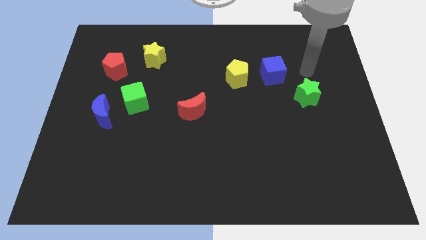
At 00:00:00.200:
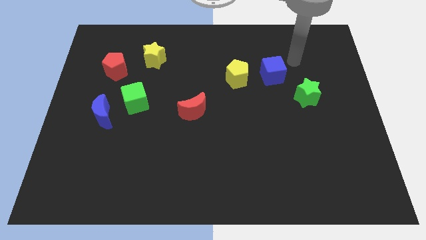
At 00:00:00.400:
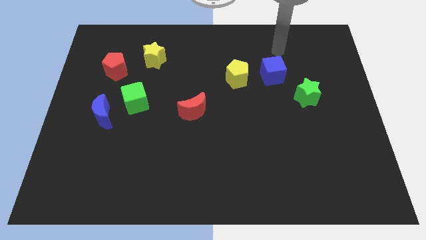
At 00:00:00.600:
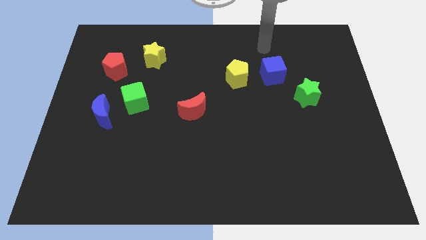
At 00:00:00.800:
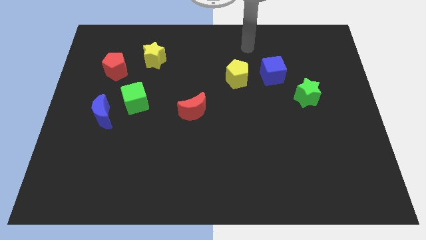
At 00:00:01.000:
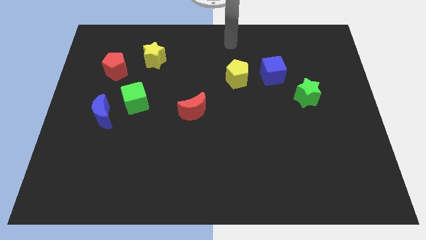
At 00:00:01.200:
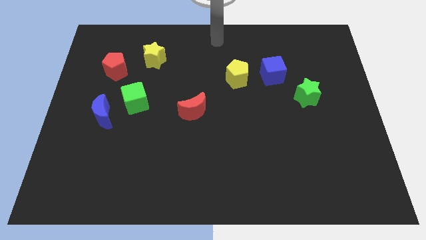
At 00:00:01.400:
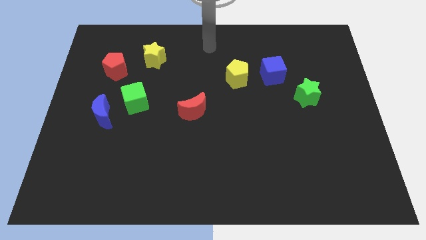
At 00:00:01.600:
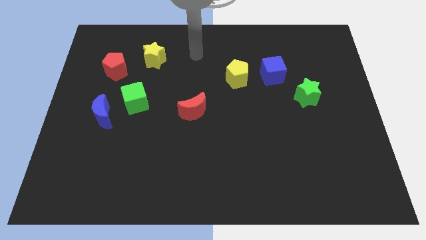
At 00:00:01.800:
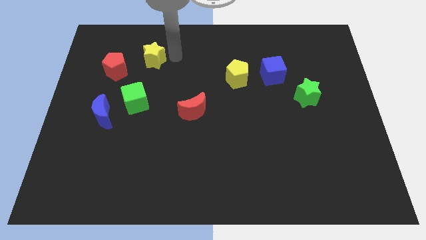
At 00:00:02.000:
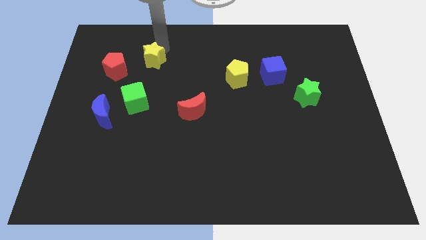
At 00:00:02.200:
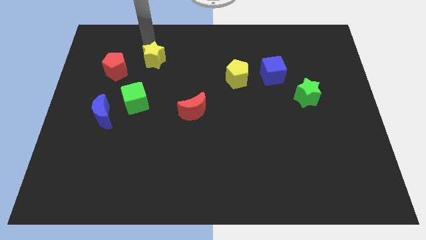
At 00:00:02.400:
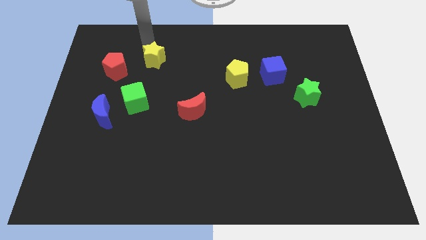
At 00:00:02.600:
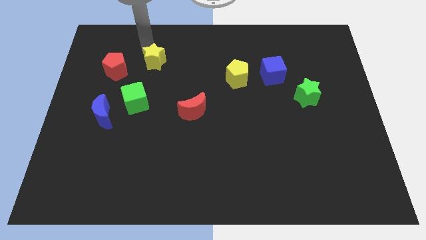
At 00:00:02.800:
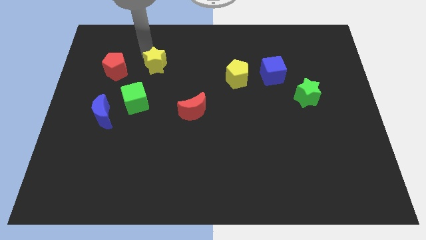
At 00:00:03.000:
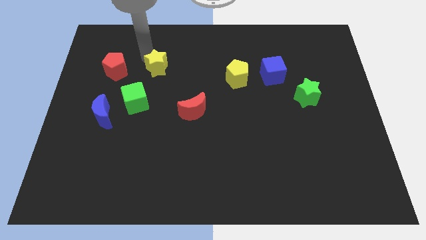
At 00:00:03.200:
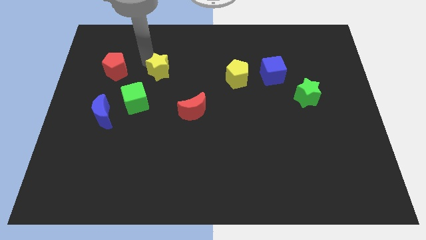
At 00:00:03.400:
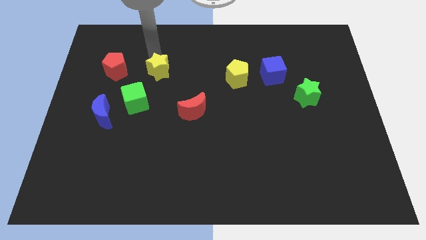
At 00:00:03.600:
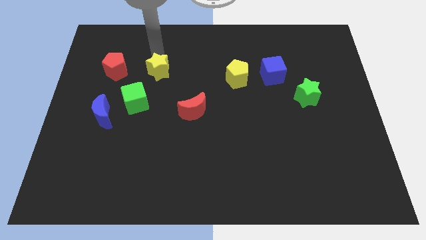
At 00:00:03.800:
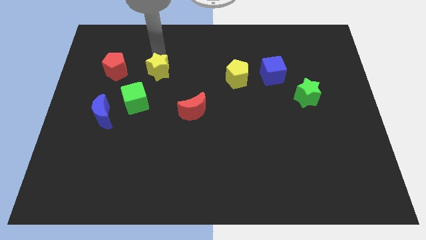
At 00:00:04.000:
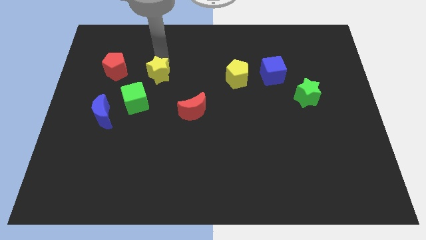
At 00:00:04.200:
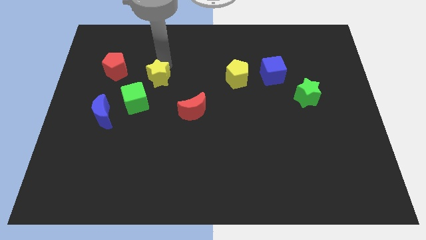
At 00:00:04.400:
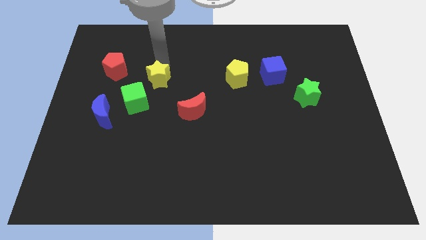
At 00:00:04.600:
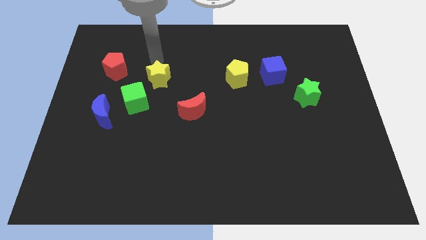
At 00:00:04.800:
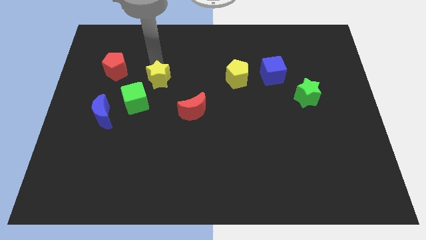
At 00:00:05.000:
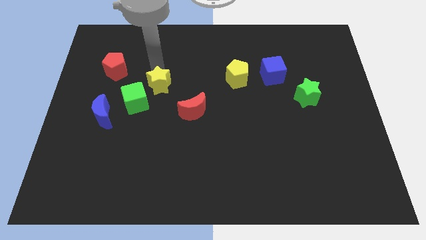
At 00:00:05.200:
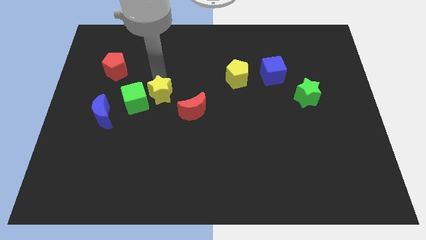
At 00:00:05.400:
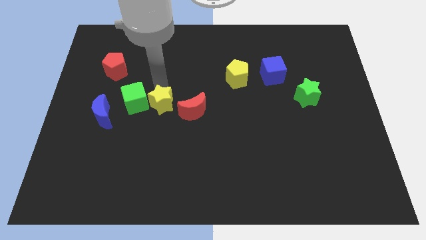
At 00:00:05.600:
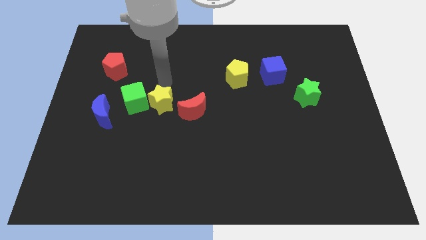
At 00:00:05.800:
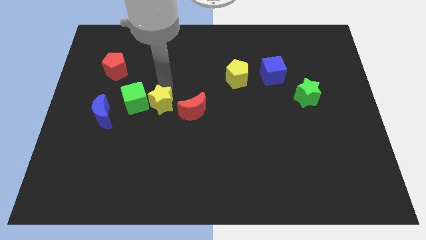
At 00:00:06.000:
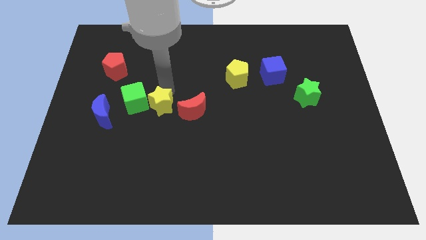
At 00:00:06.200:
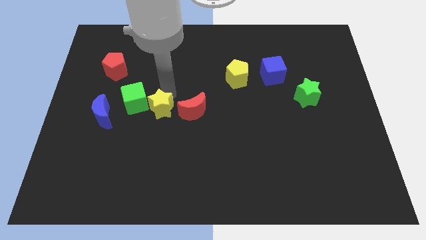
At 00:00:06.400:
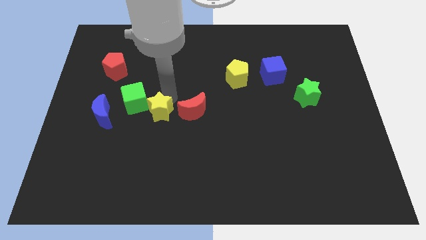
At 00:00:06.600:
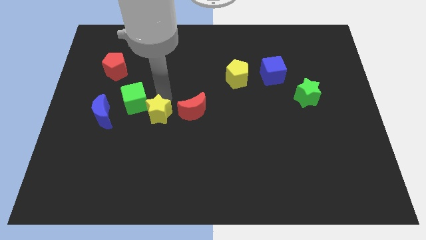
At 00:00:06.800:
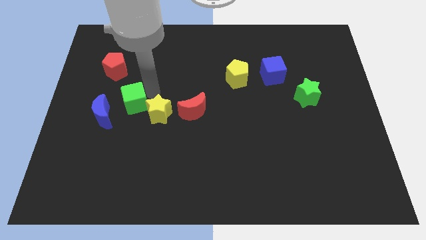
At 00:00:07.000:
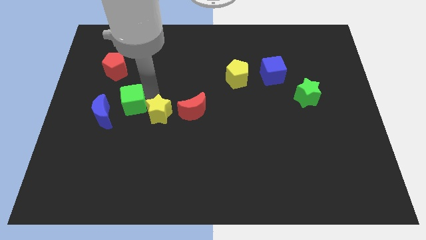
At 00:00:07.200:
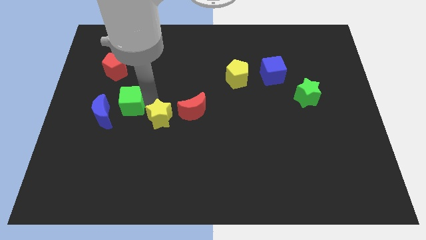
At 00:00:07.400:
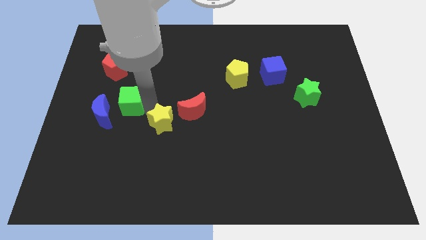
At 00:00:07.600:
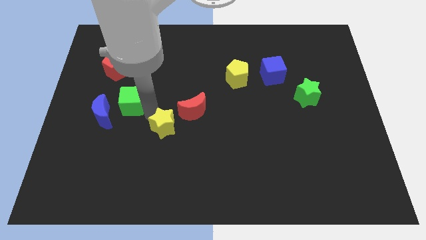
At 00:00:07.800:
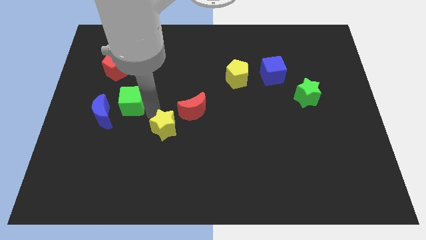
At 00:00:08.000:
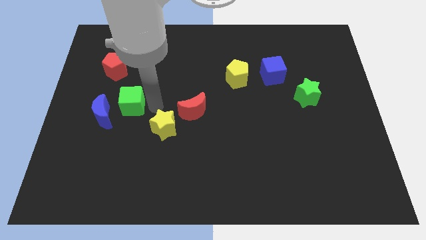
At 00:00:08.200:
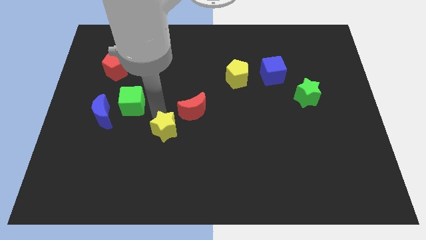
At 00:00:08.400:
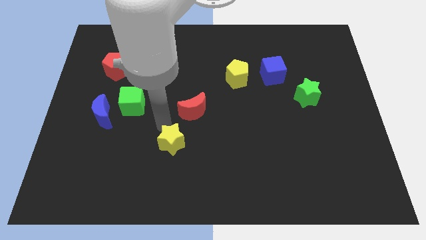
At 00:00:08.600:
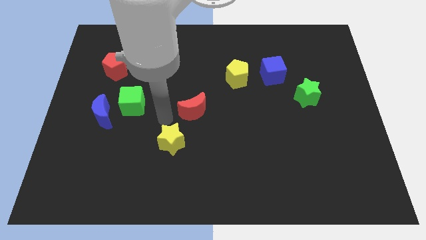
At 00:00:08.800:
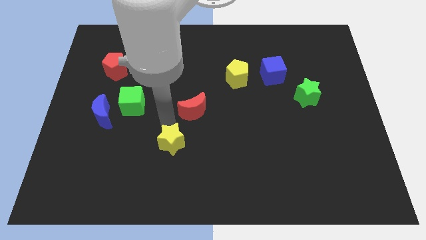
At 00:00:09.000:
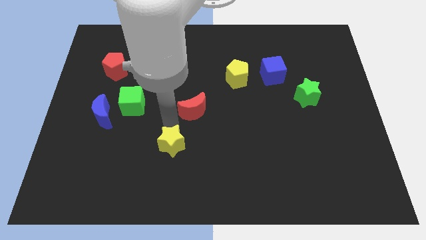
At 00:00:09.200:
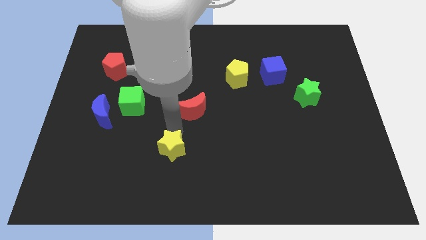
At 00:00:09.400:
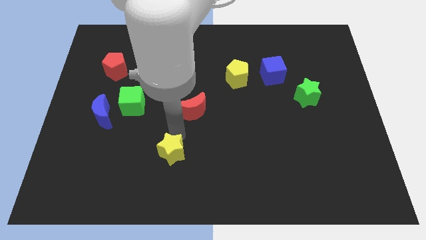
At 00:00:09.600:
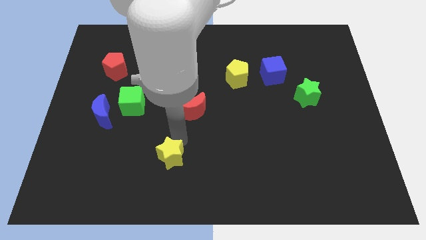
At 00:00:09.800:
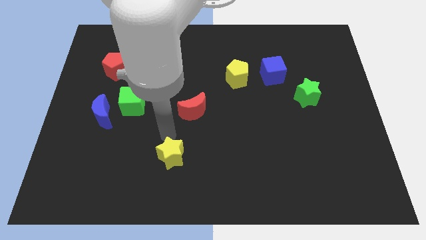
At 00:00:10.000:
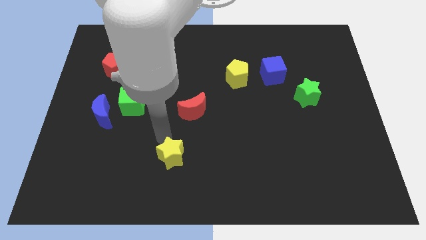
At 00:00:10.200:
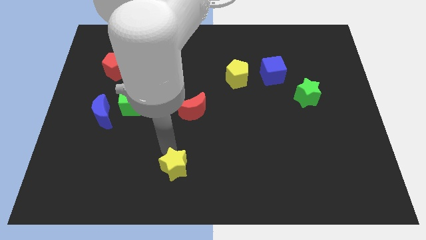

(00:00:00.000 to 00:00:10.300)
push the yellow star to the bottom
